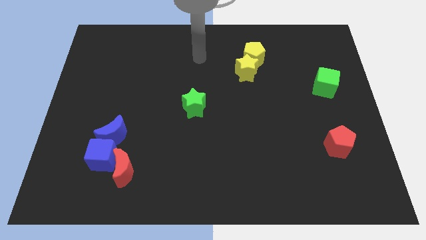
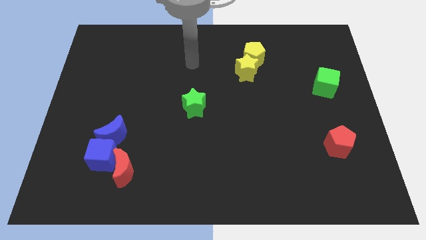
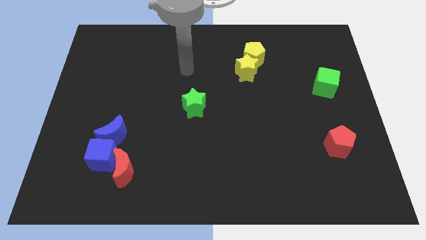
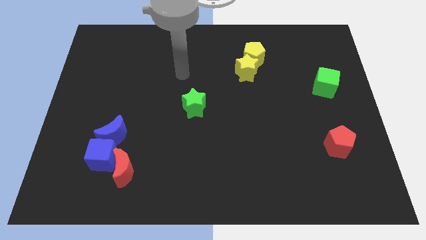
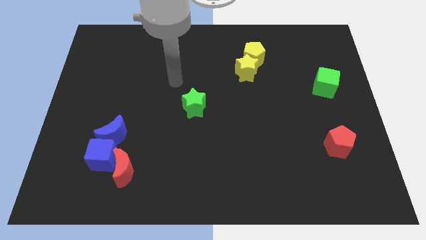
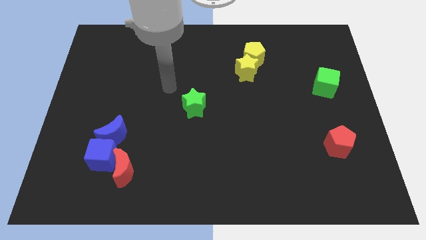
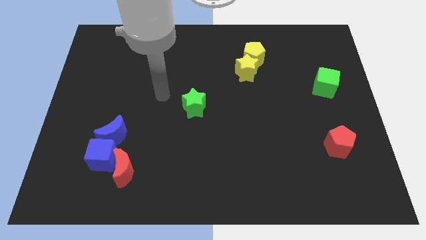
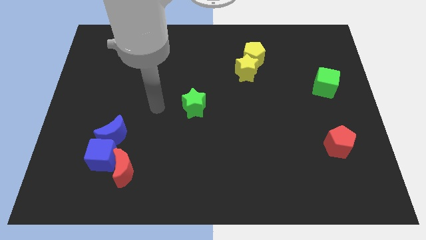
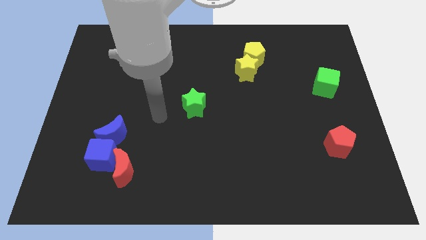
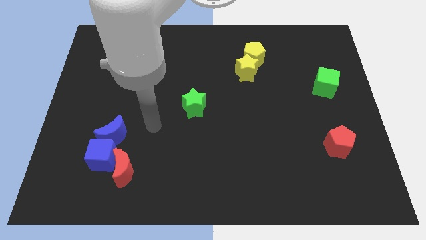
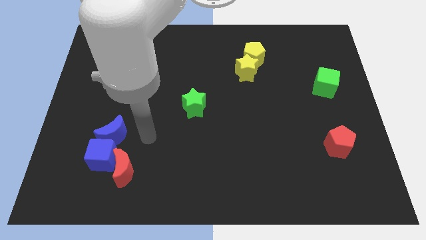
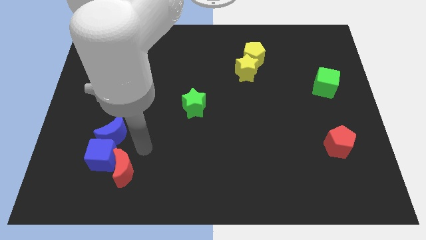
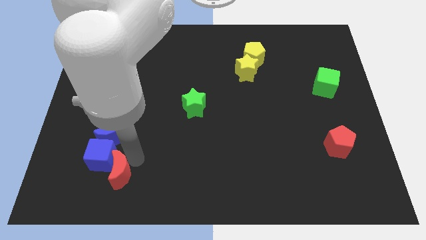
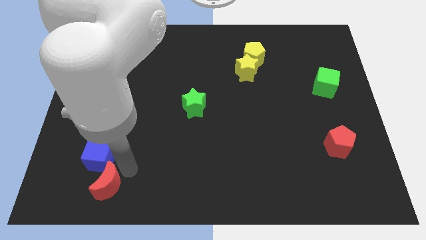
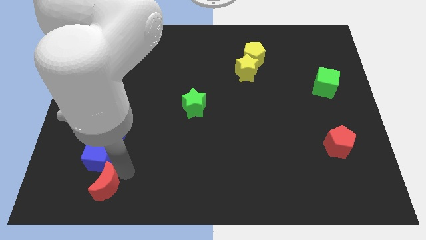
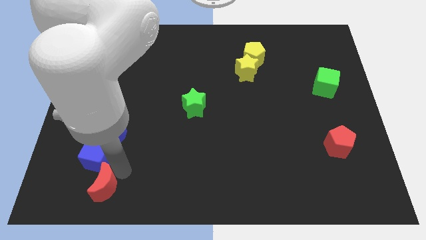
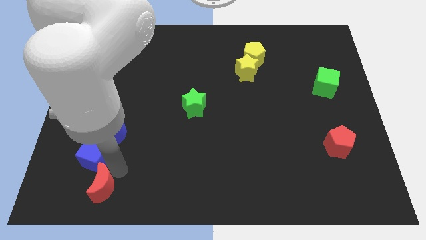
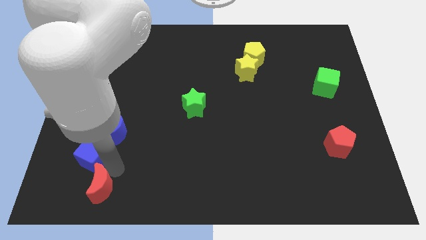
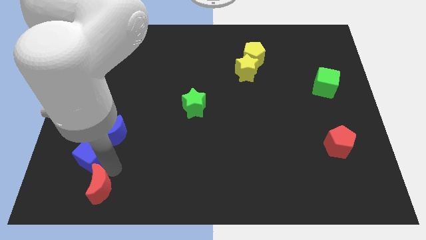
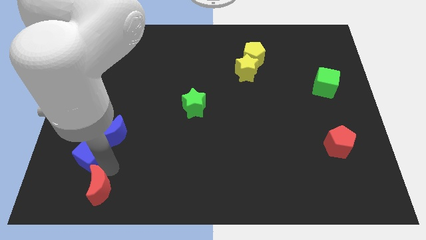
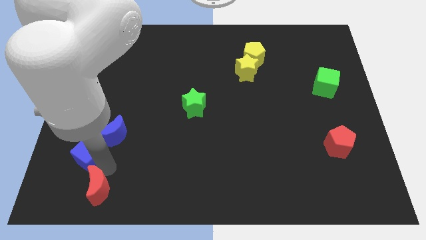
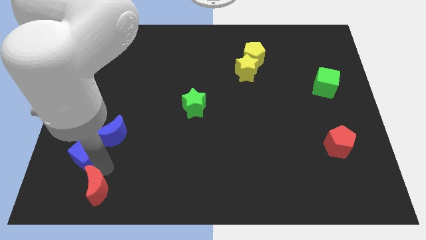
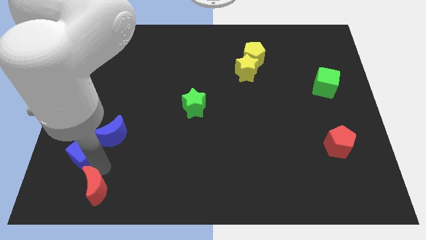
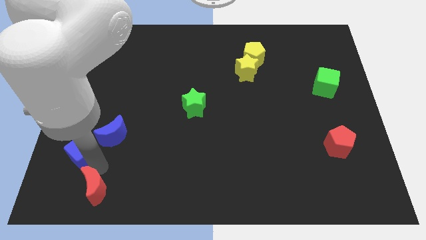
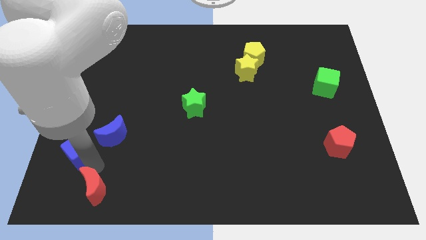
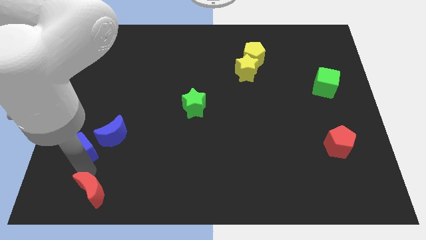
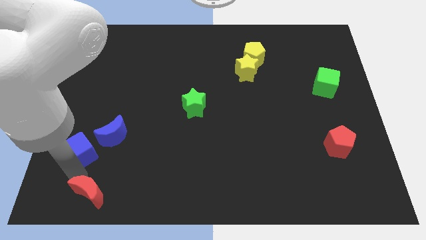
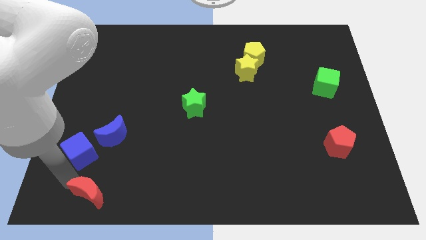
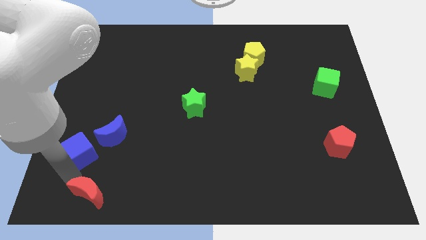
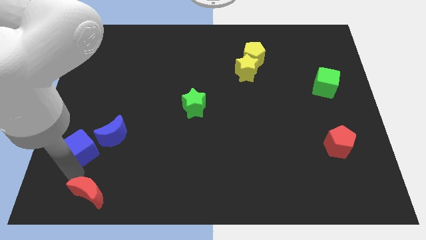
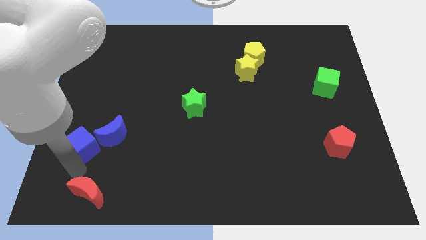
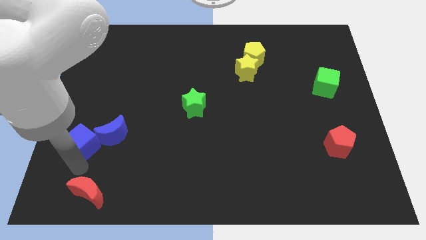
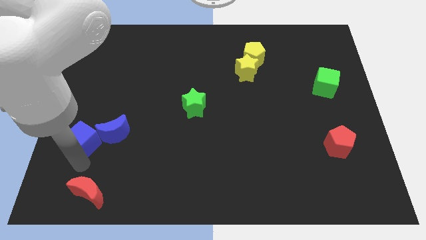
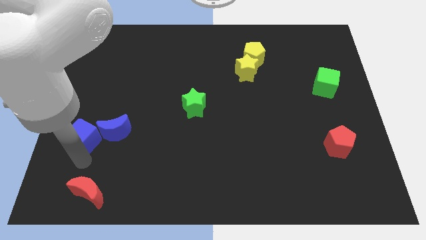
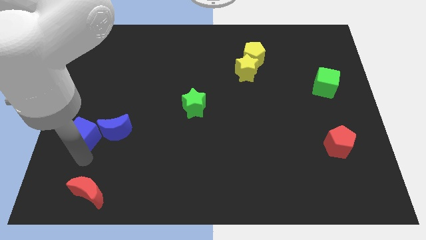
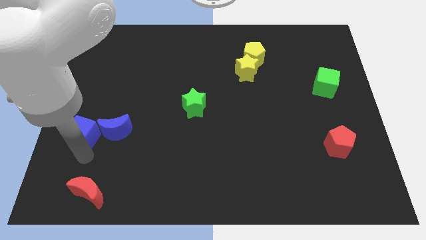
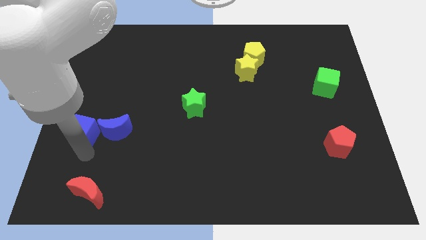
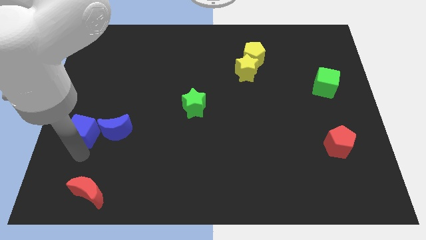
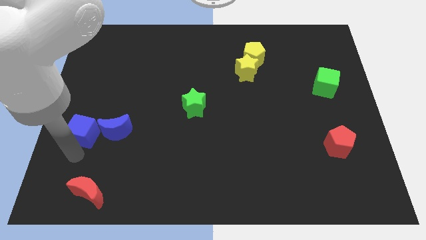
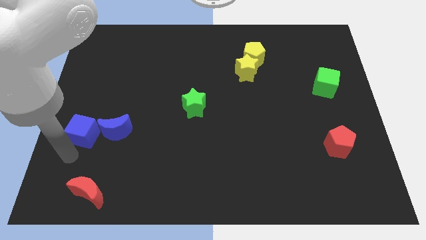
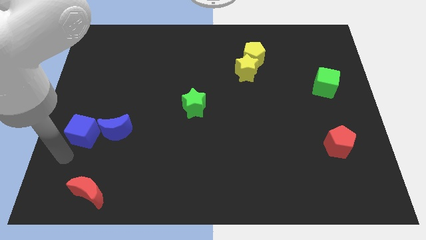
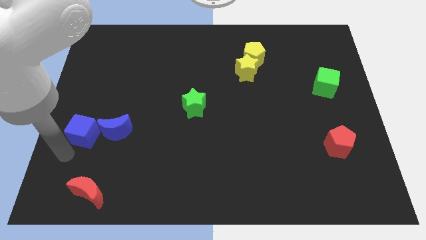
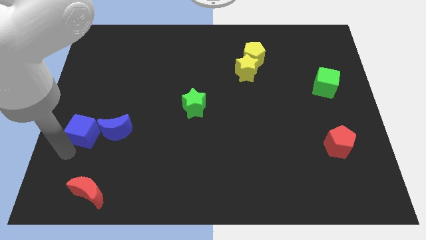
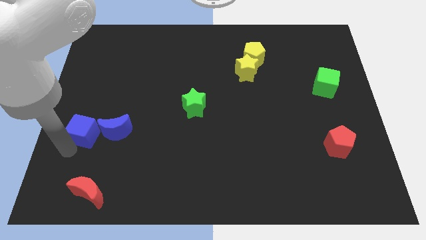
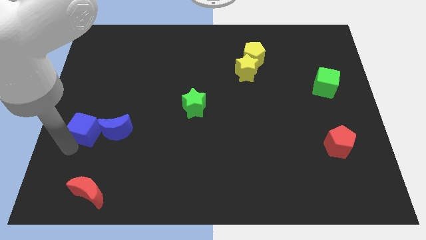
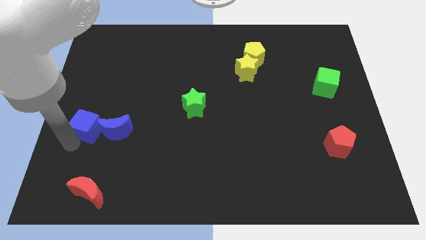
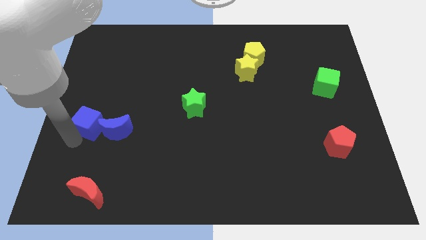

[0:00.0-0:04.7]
slightly move the blue cube upwards

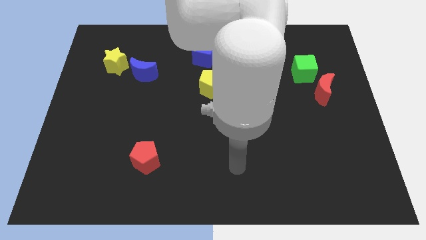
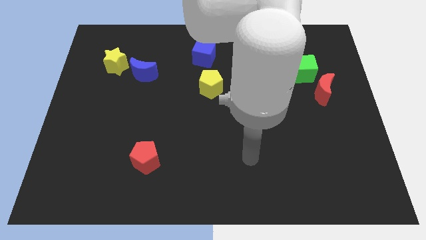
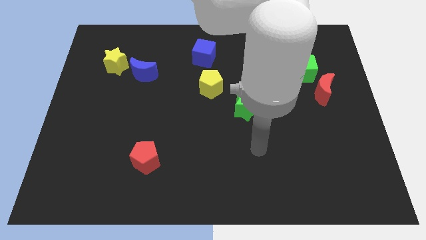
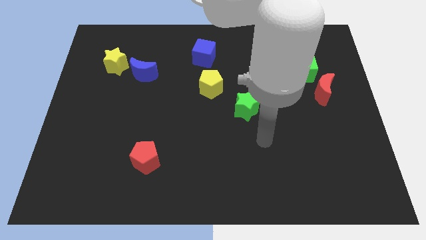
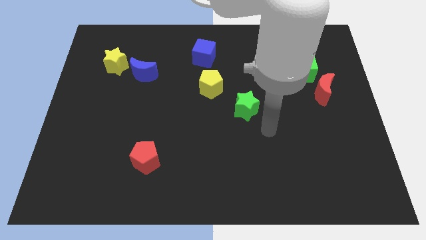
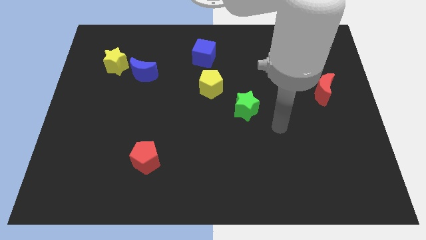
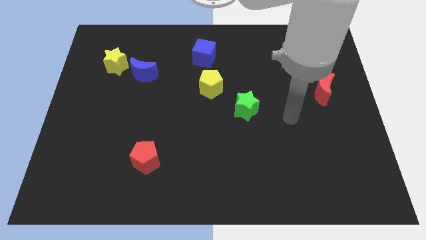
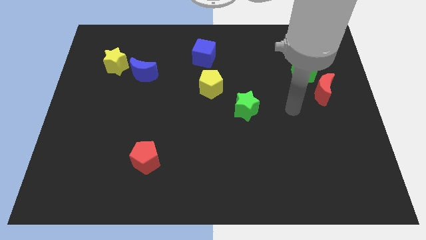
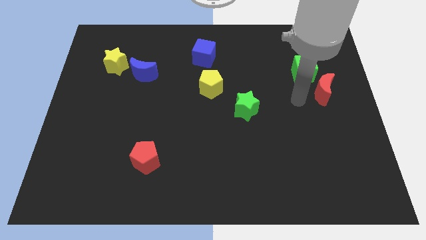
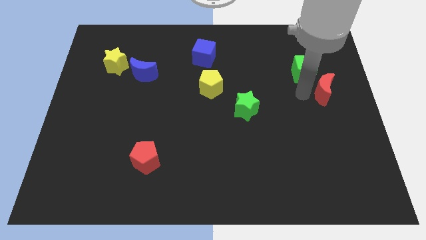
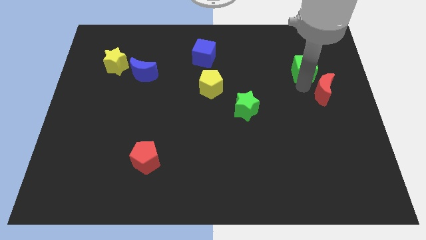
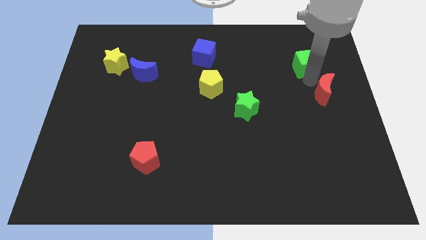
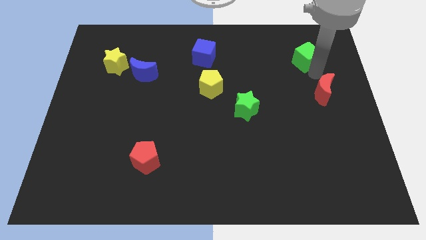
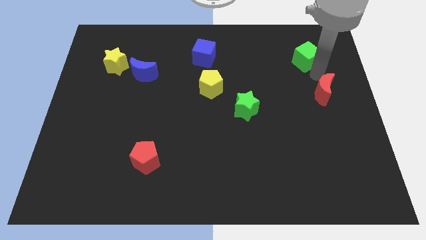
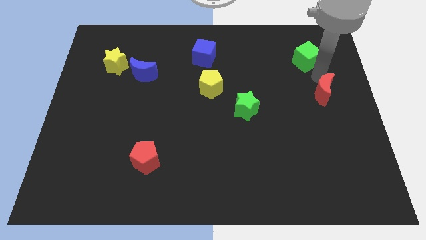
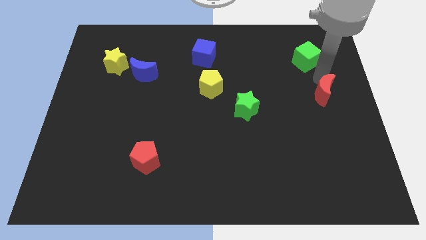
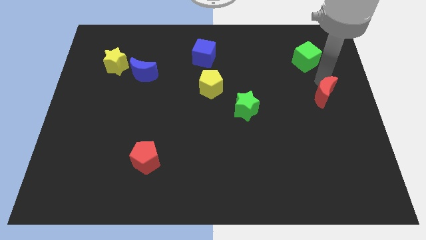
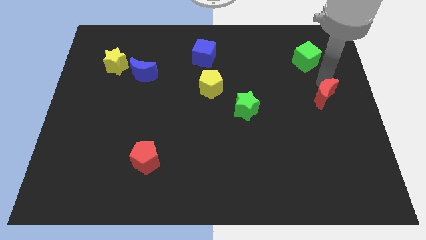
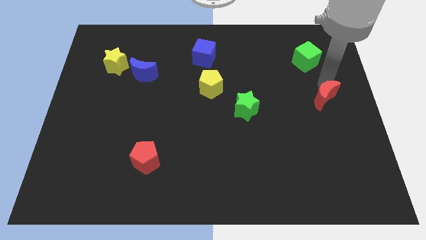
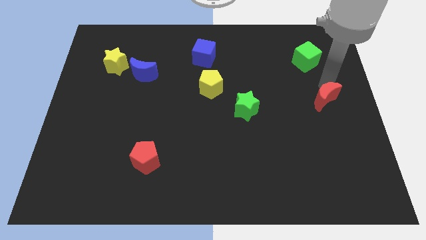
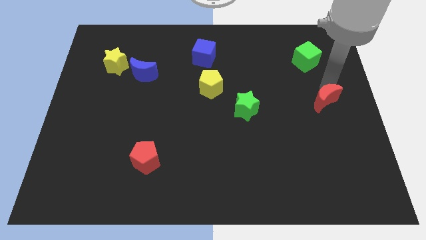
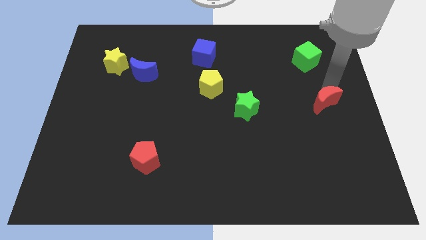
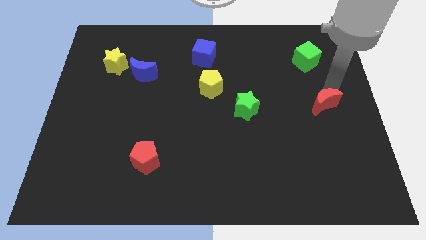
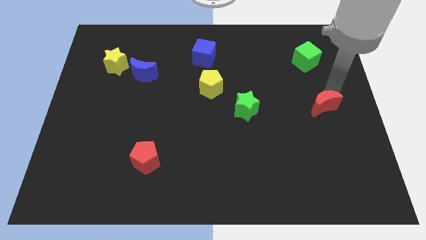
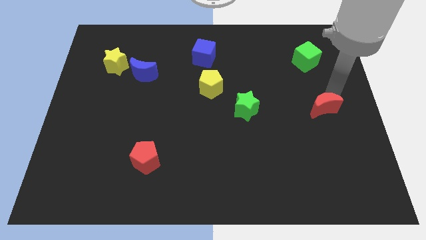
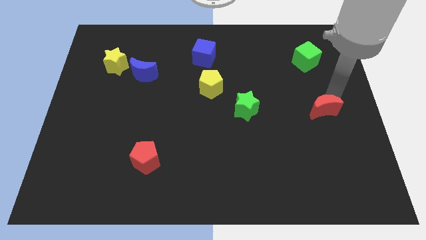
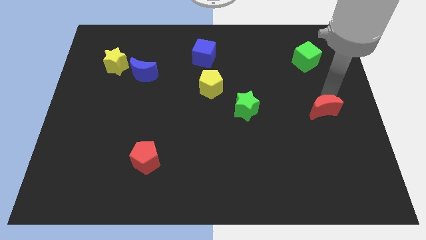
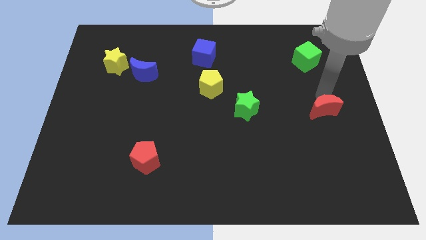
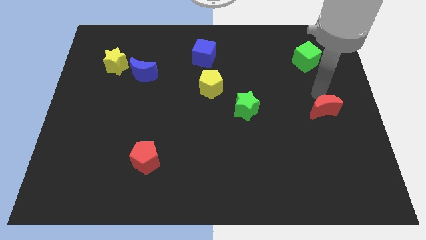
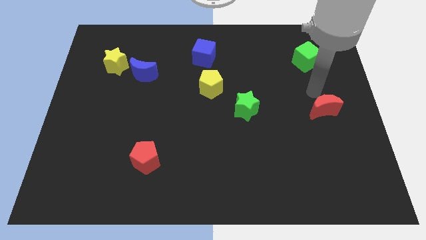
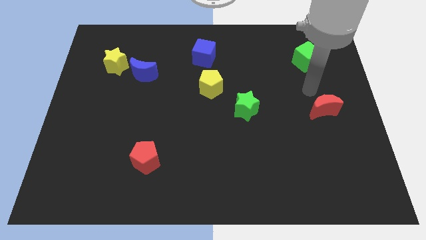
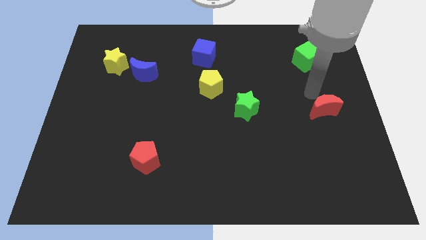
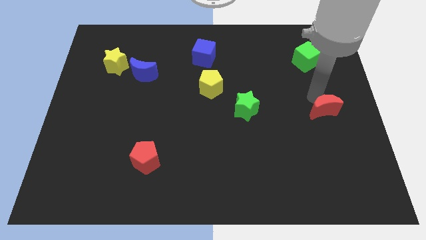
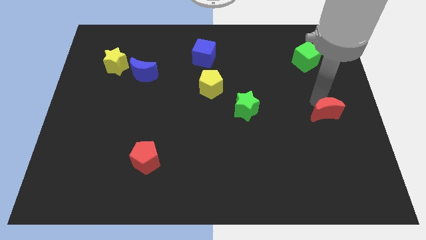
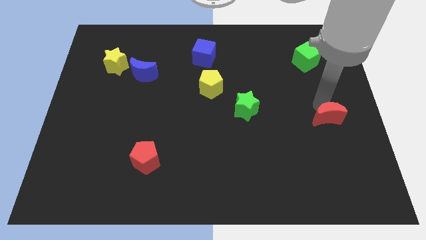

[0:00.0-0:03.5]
push the red moon slightly downwards
